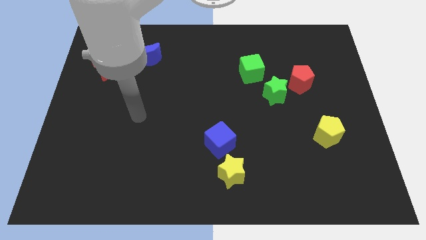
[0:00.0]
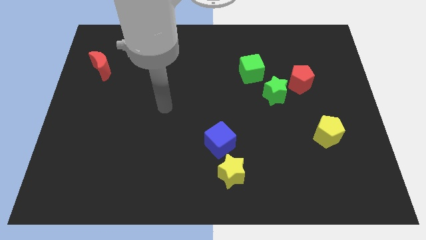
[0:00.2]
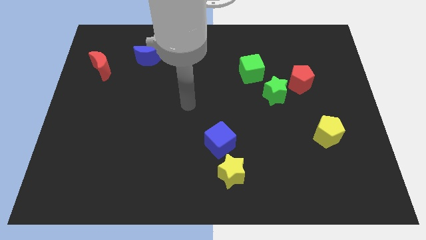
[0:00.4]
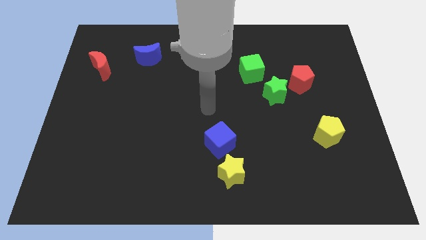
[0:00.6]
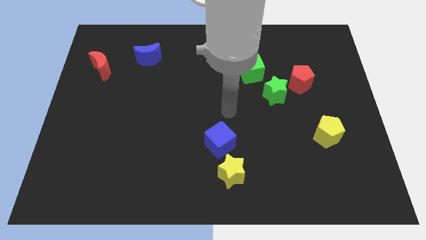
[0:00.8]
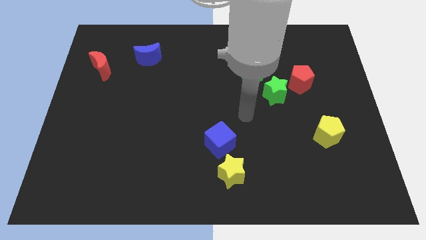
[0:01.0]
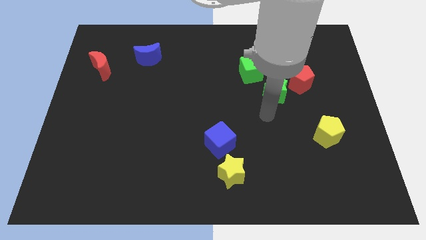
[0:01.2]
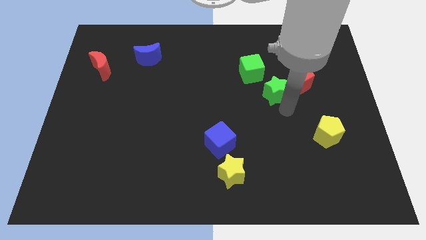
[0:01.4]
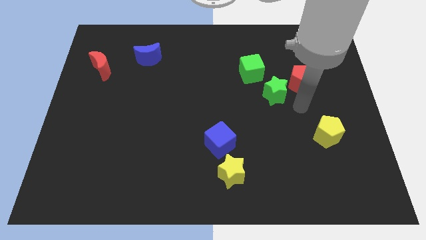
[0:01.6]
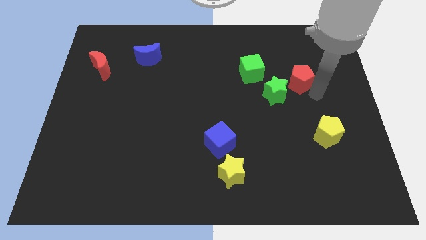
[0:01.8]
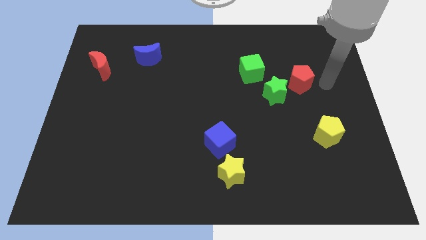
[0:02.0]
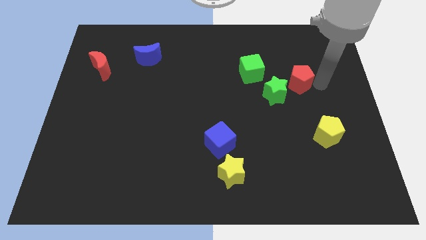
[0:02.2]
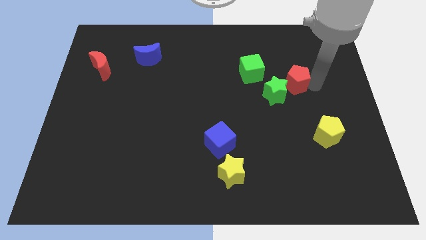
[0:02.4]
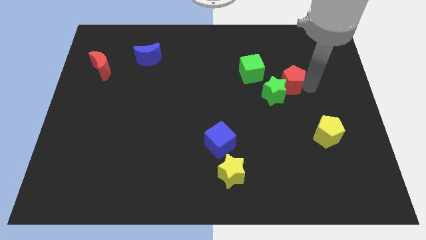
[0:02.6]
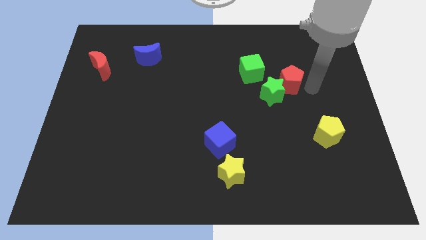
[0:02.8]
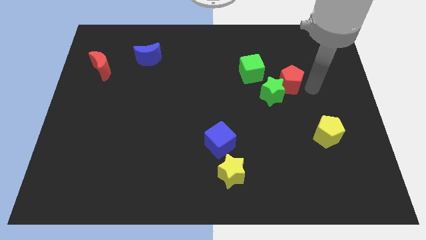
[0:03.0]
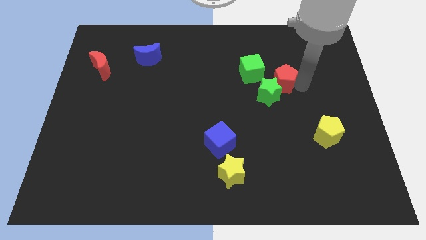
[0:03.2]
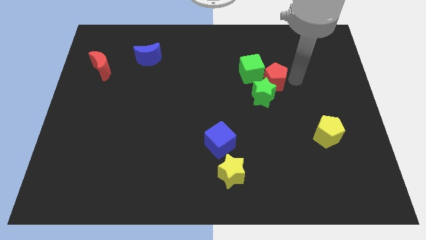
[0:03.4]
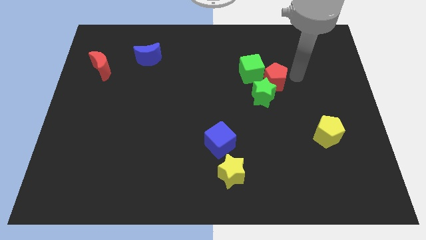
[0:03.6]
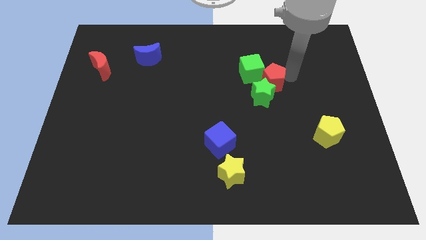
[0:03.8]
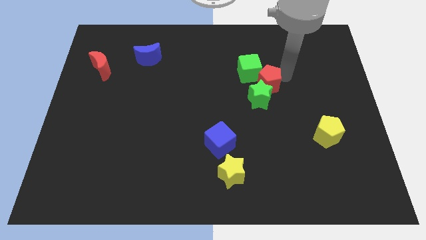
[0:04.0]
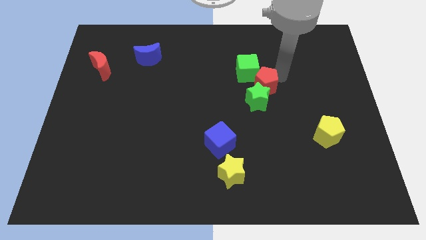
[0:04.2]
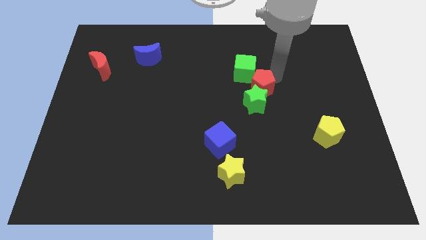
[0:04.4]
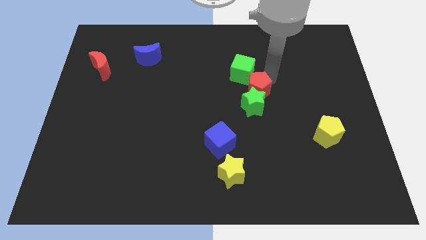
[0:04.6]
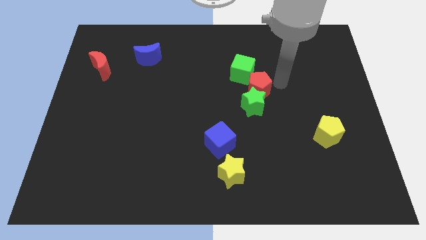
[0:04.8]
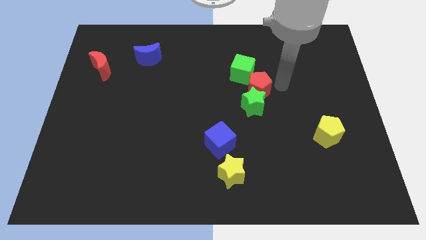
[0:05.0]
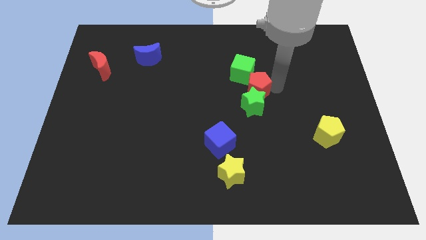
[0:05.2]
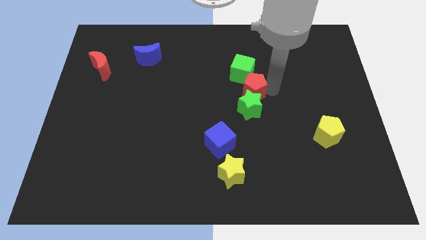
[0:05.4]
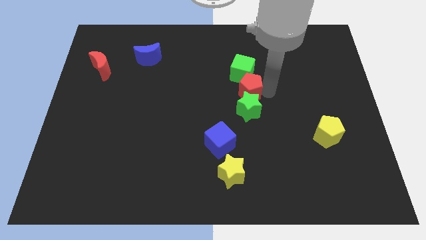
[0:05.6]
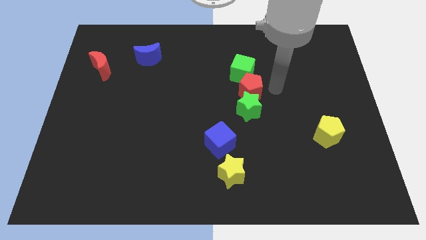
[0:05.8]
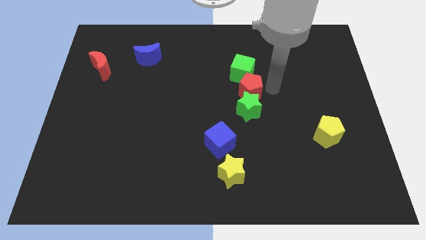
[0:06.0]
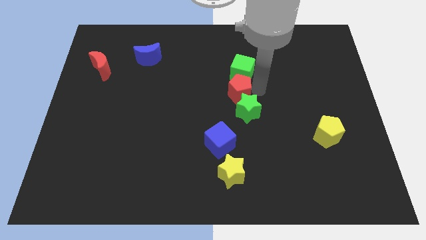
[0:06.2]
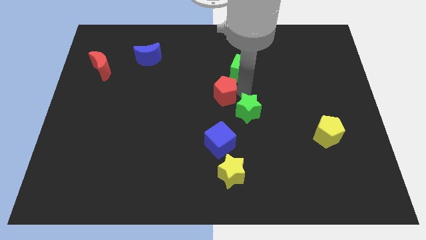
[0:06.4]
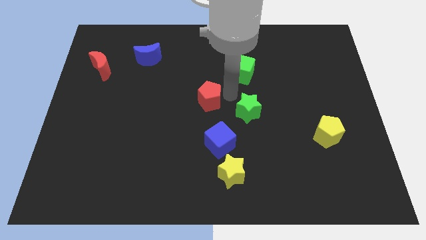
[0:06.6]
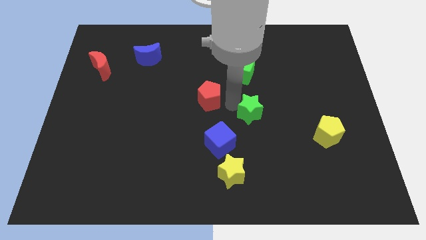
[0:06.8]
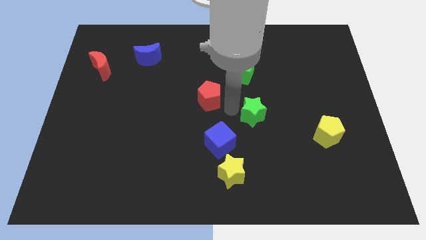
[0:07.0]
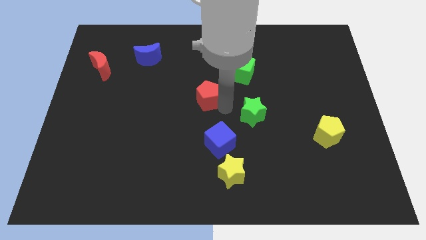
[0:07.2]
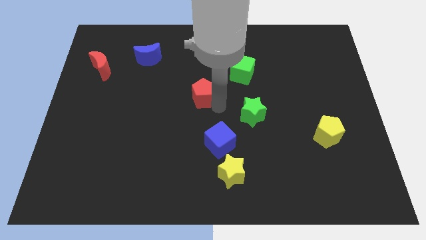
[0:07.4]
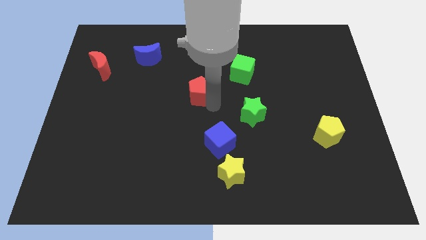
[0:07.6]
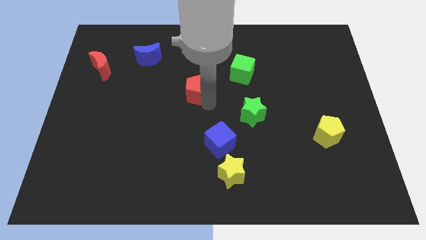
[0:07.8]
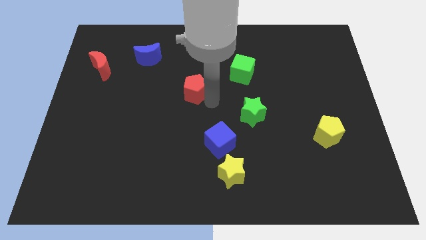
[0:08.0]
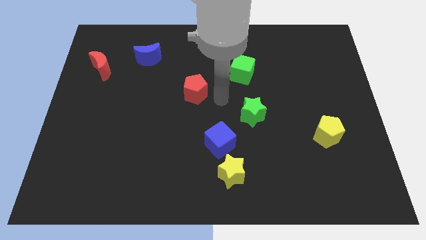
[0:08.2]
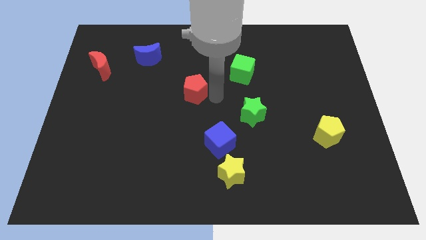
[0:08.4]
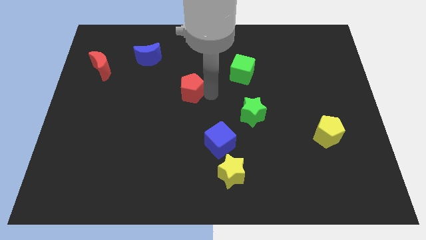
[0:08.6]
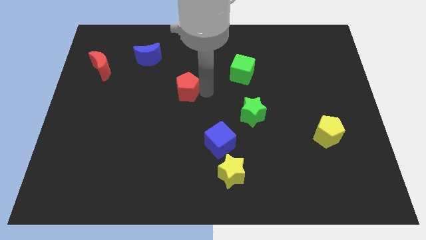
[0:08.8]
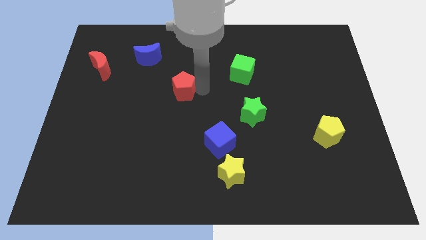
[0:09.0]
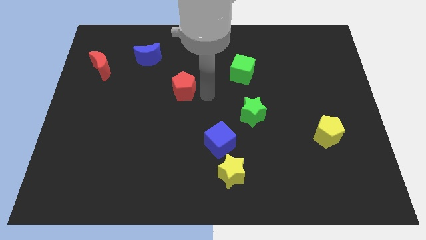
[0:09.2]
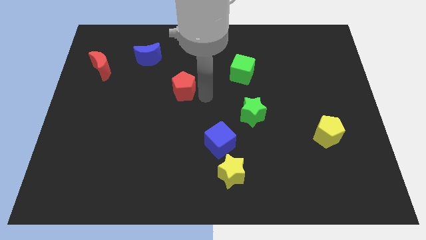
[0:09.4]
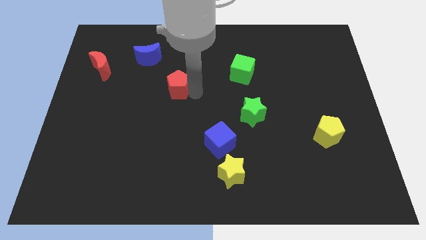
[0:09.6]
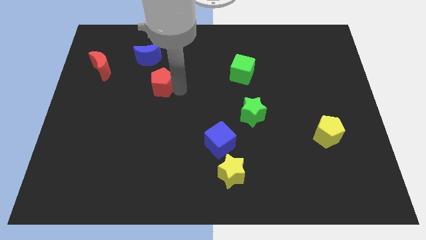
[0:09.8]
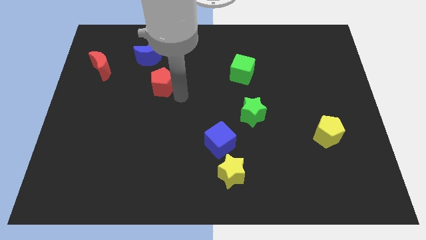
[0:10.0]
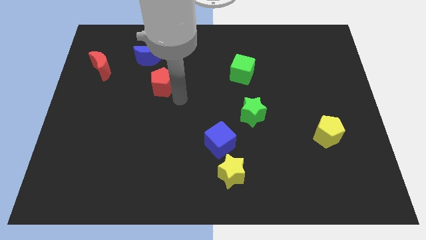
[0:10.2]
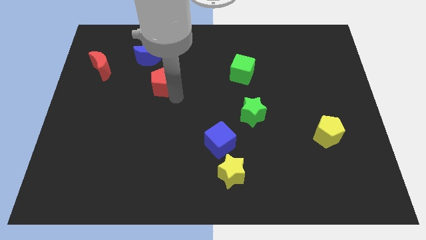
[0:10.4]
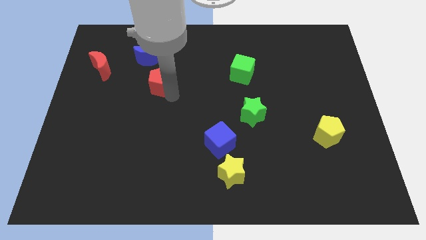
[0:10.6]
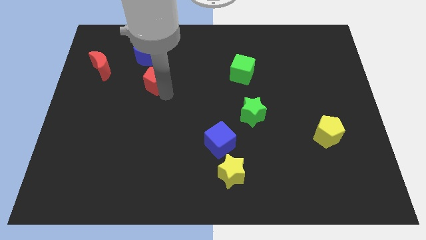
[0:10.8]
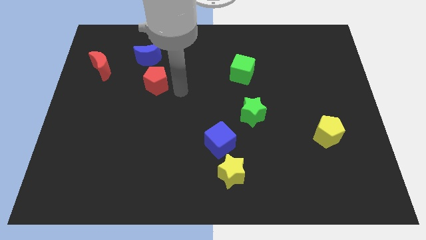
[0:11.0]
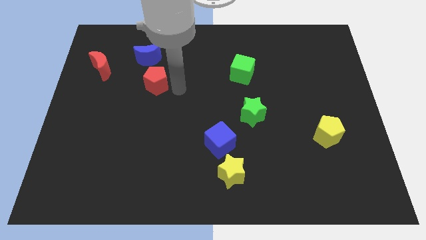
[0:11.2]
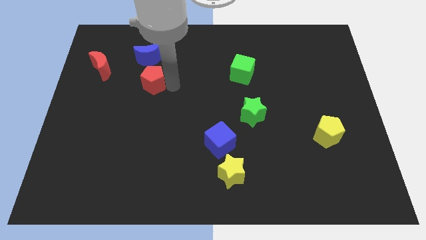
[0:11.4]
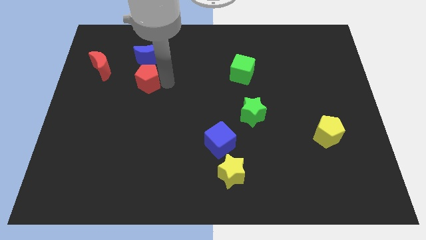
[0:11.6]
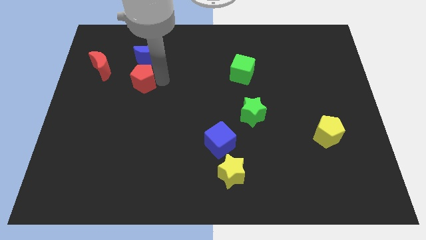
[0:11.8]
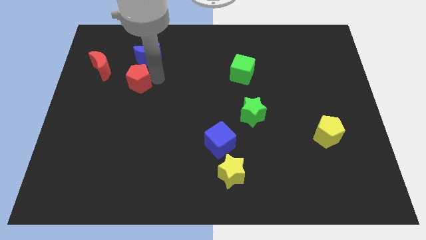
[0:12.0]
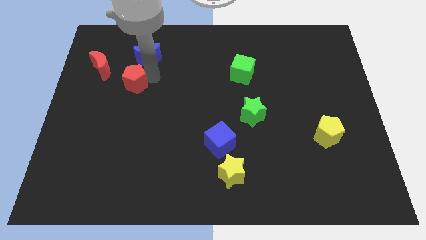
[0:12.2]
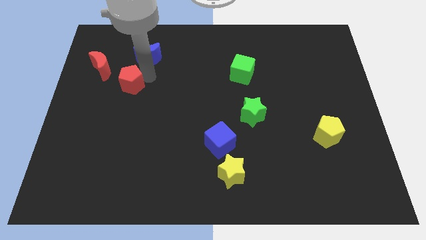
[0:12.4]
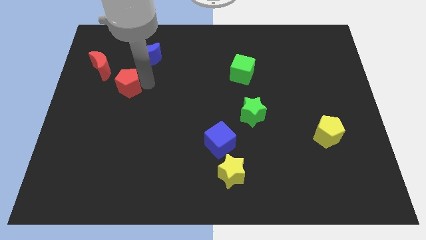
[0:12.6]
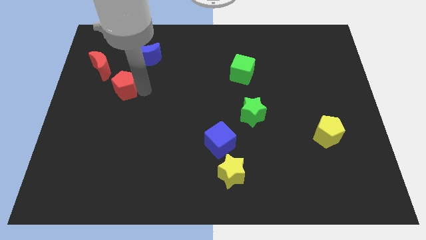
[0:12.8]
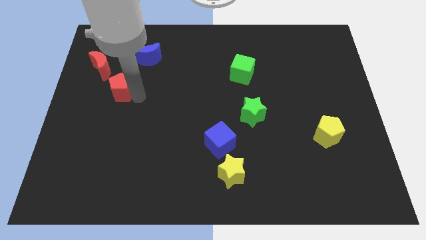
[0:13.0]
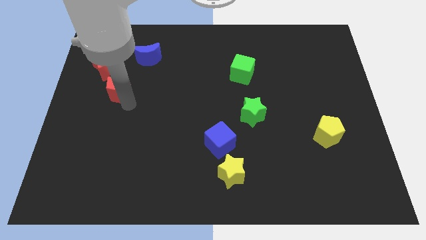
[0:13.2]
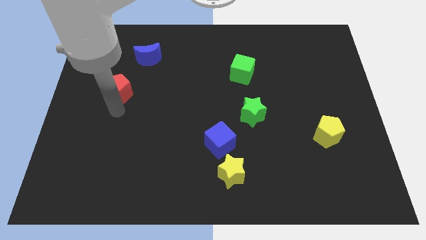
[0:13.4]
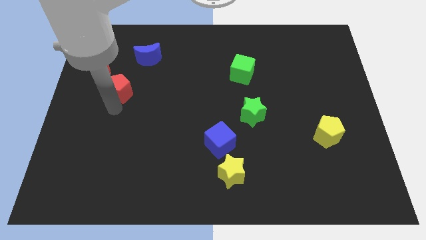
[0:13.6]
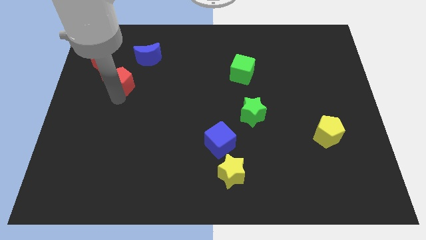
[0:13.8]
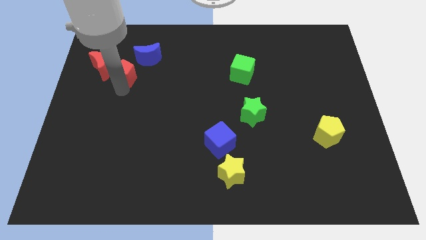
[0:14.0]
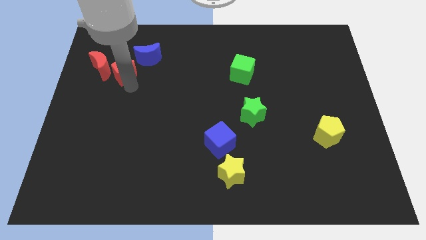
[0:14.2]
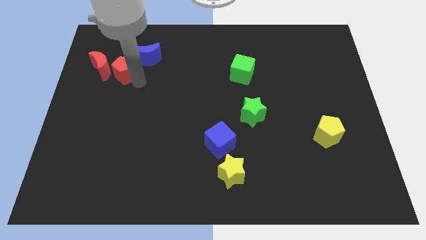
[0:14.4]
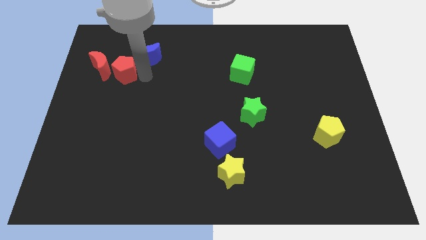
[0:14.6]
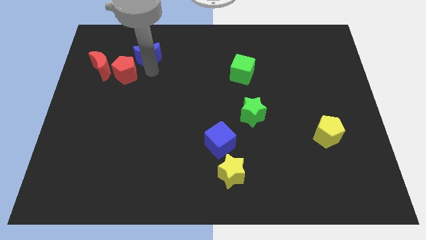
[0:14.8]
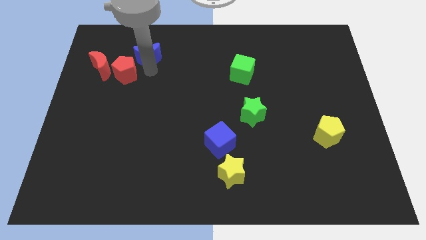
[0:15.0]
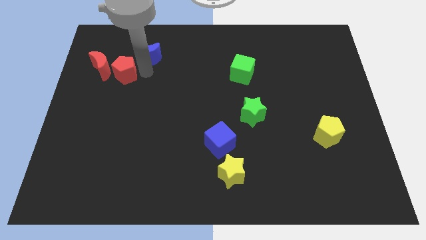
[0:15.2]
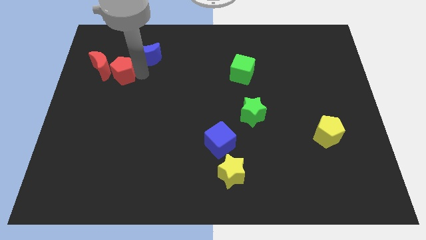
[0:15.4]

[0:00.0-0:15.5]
slide the red pentagon to the red moon
